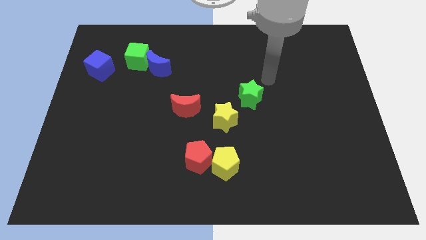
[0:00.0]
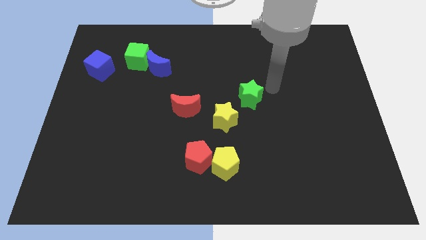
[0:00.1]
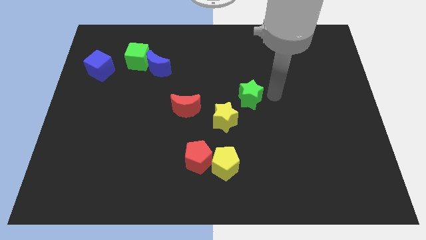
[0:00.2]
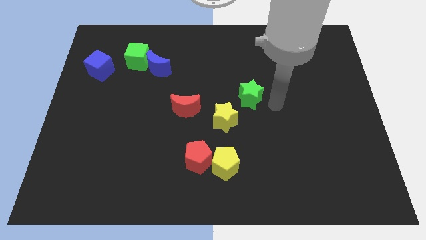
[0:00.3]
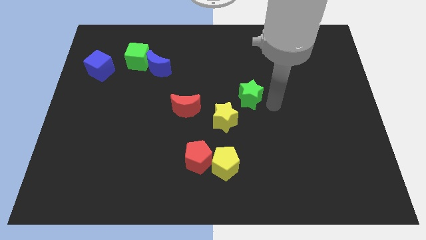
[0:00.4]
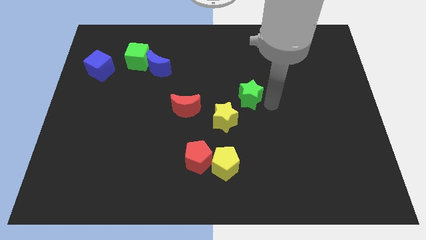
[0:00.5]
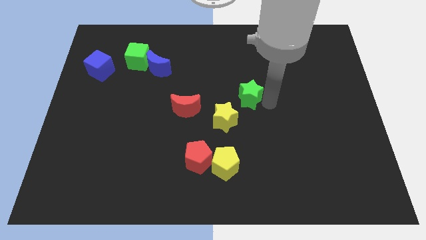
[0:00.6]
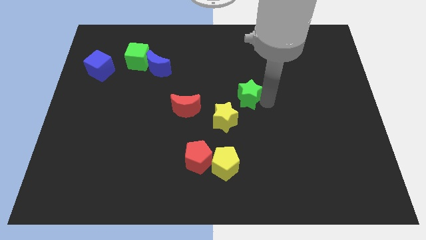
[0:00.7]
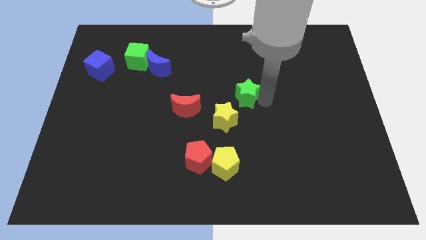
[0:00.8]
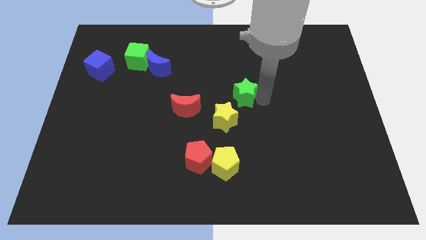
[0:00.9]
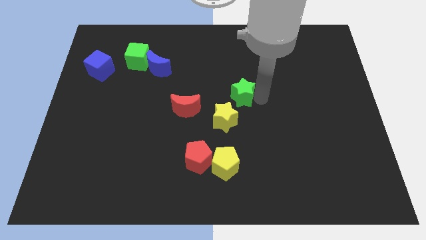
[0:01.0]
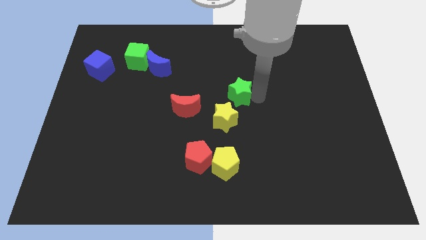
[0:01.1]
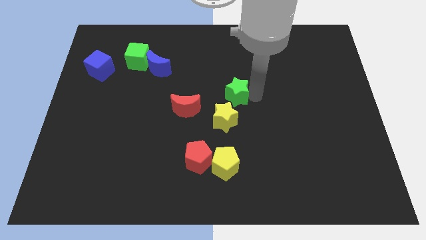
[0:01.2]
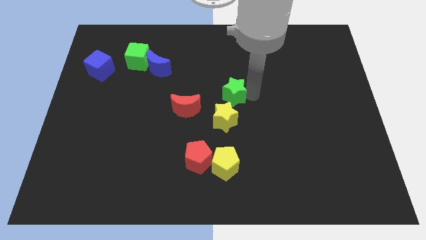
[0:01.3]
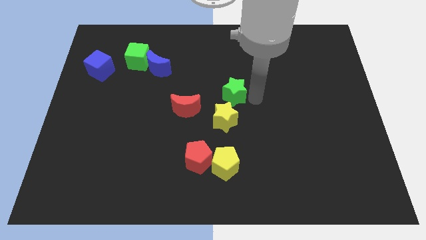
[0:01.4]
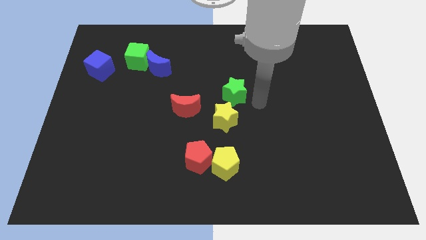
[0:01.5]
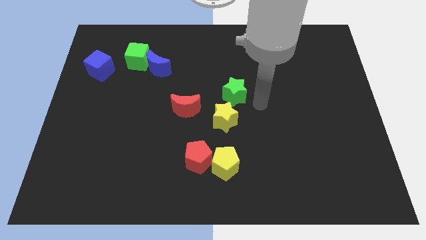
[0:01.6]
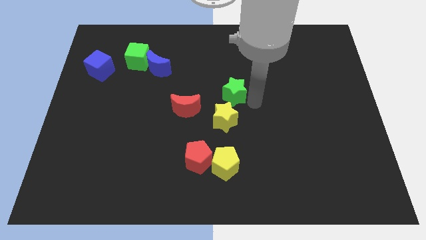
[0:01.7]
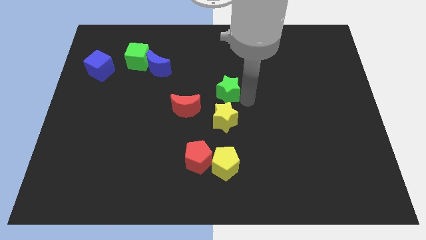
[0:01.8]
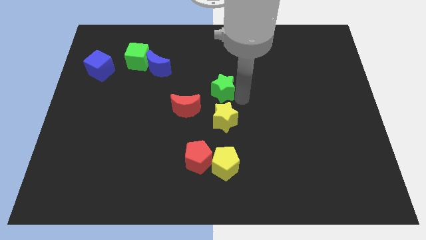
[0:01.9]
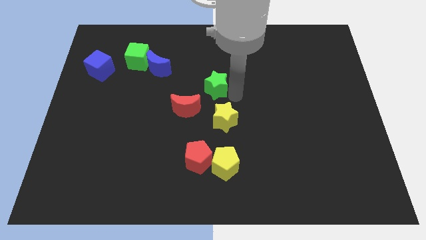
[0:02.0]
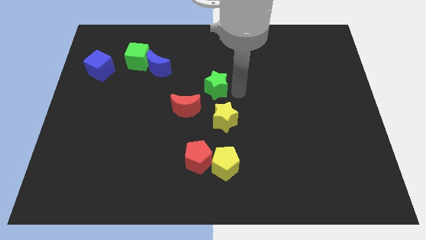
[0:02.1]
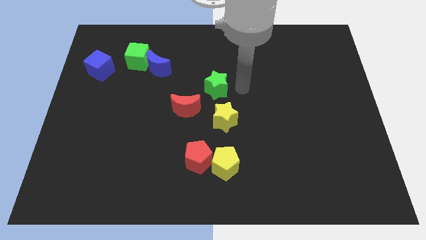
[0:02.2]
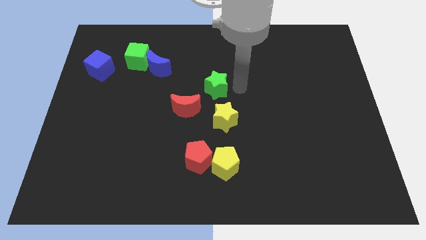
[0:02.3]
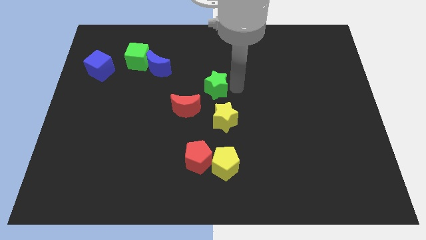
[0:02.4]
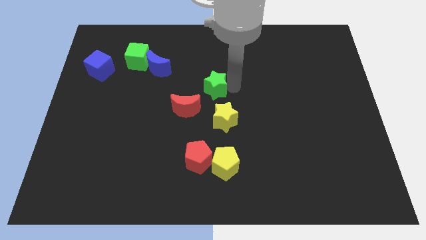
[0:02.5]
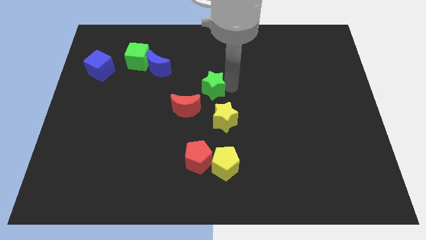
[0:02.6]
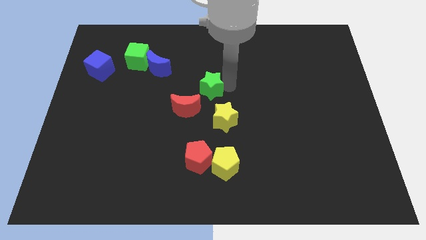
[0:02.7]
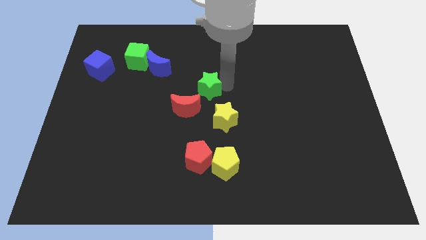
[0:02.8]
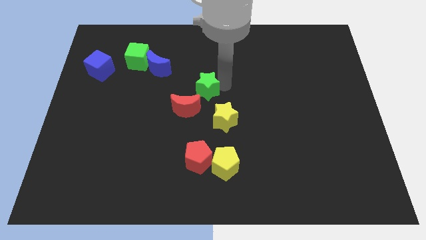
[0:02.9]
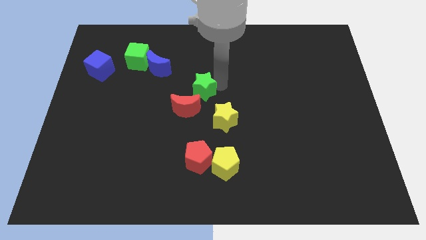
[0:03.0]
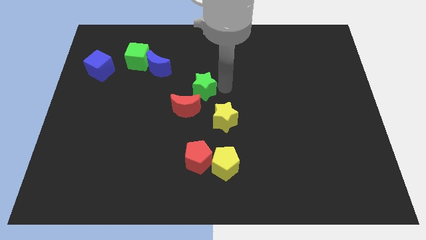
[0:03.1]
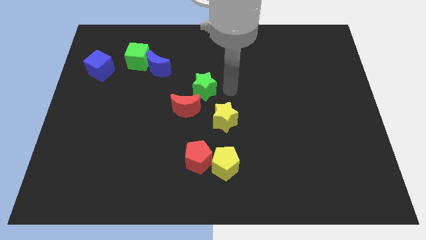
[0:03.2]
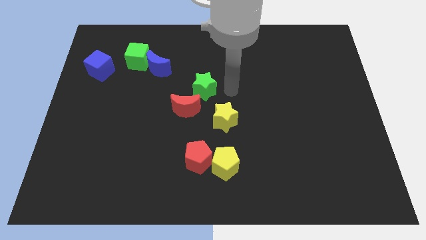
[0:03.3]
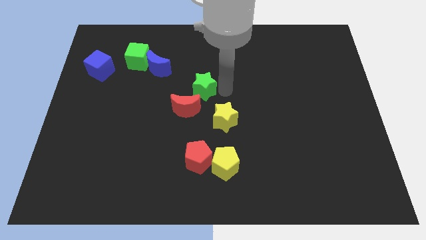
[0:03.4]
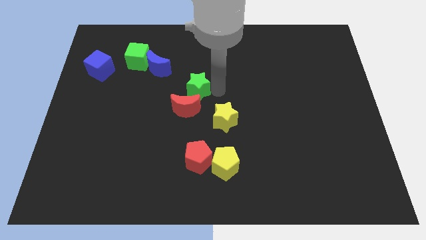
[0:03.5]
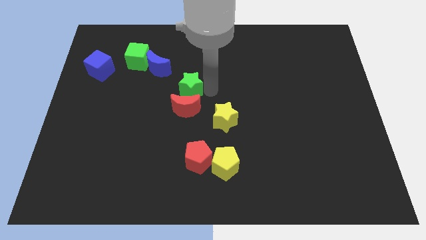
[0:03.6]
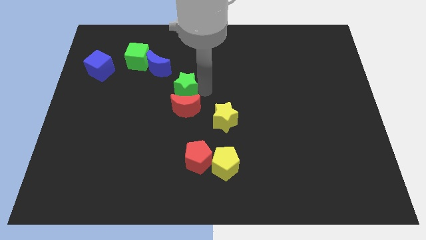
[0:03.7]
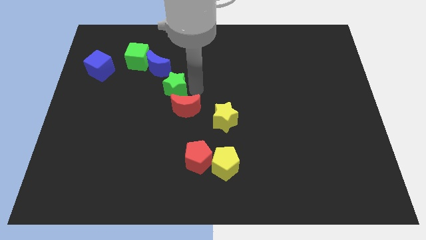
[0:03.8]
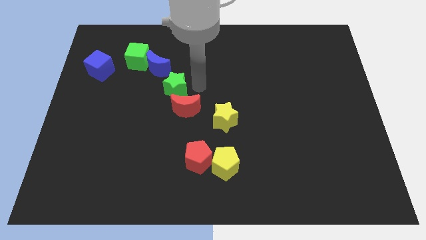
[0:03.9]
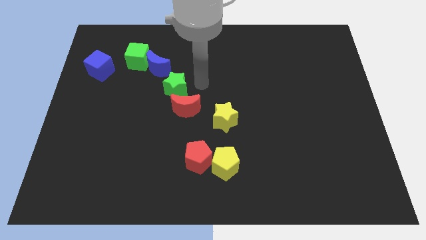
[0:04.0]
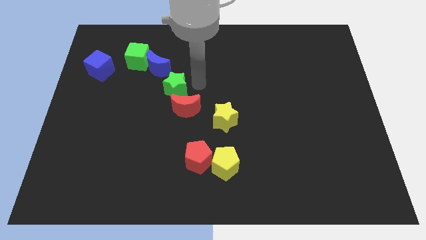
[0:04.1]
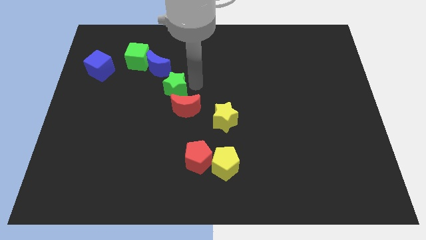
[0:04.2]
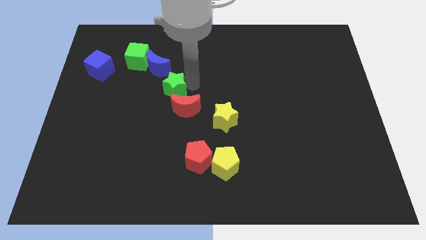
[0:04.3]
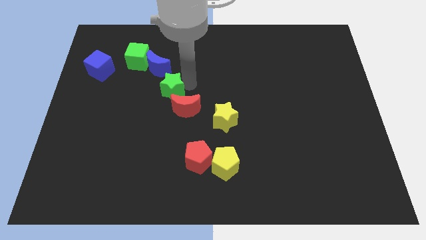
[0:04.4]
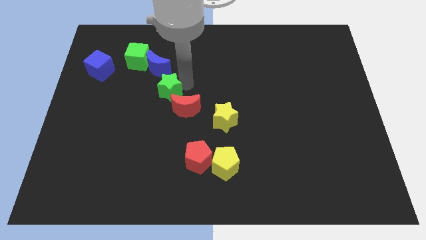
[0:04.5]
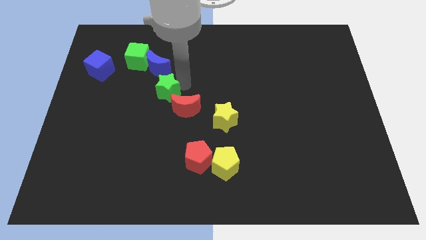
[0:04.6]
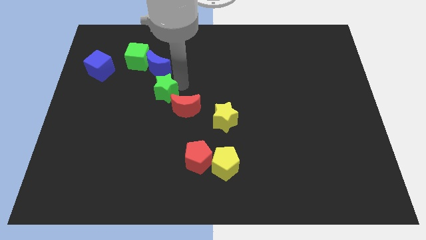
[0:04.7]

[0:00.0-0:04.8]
move the green star to the left

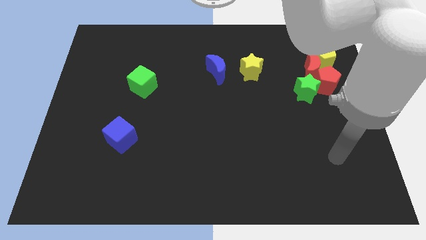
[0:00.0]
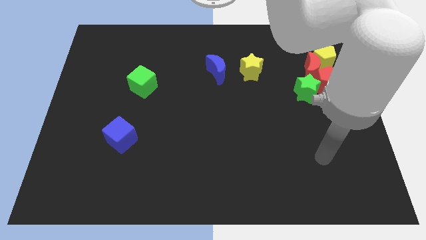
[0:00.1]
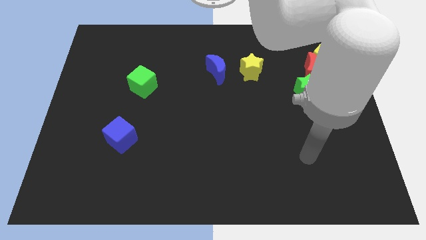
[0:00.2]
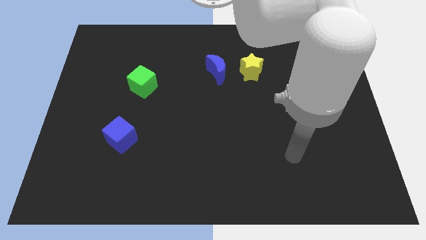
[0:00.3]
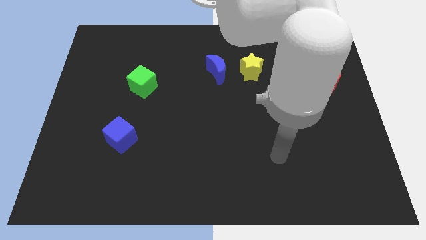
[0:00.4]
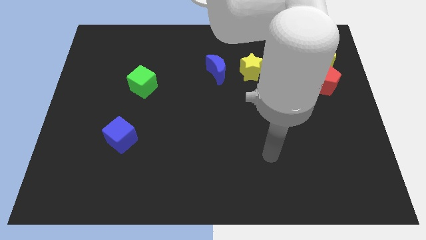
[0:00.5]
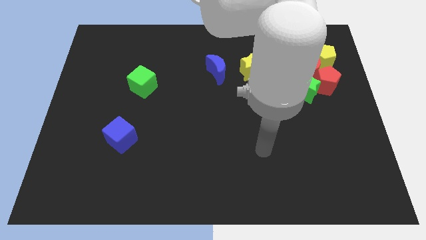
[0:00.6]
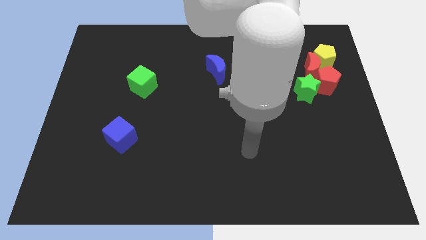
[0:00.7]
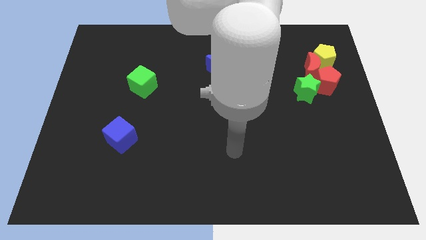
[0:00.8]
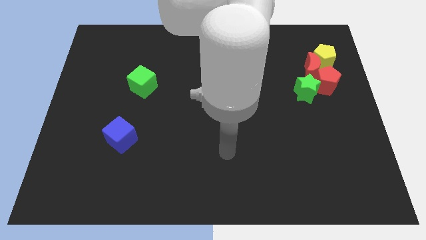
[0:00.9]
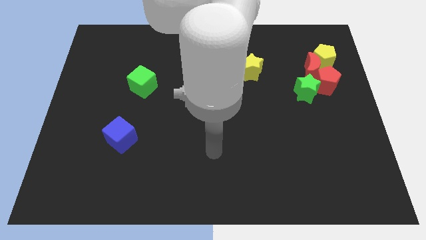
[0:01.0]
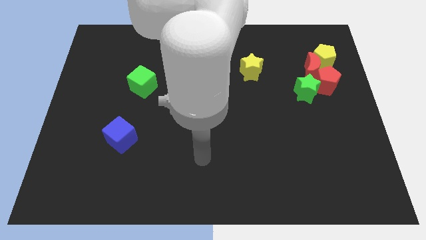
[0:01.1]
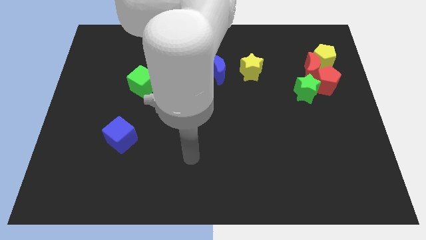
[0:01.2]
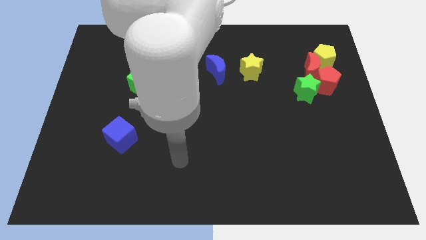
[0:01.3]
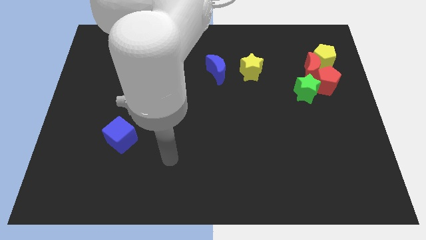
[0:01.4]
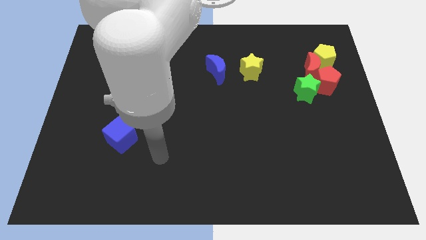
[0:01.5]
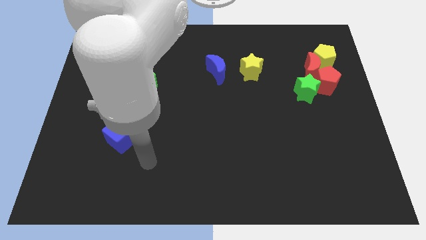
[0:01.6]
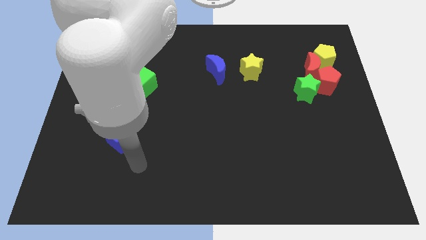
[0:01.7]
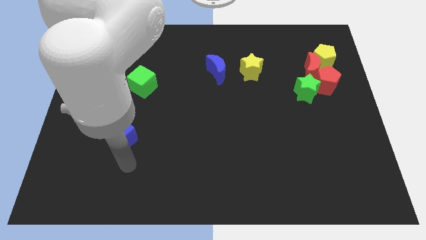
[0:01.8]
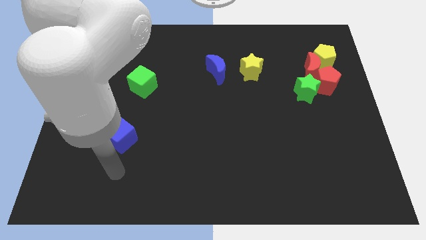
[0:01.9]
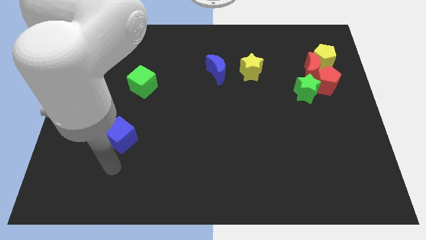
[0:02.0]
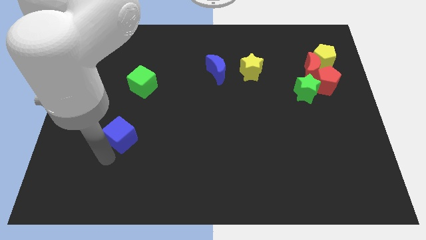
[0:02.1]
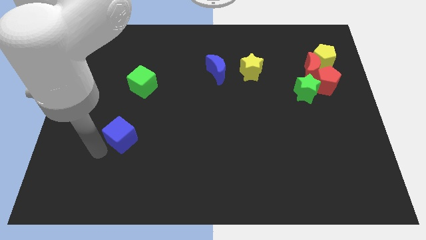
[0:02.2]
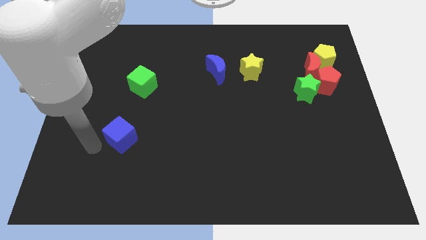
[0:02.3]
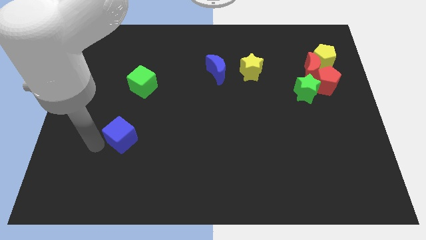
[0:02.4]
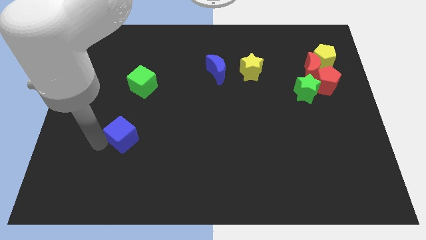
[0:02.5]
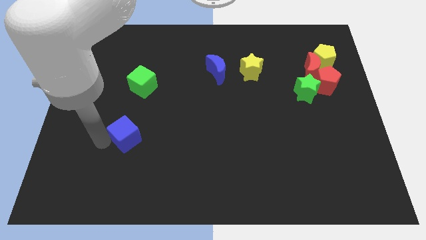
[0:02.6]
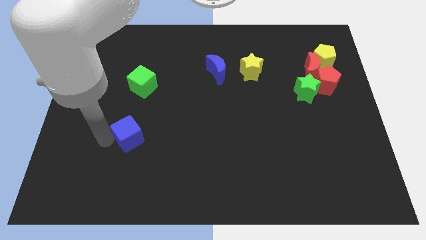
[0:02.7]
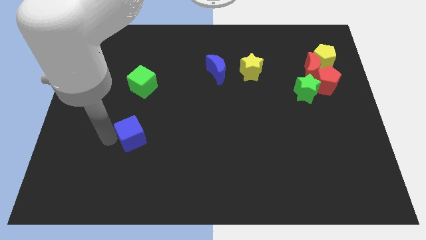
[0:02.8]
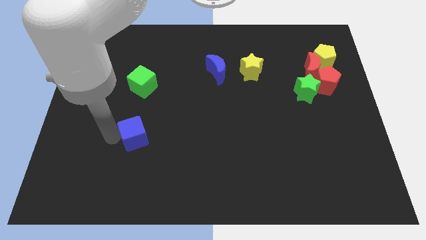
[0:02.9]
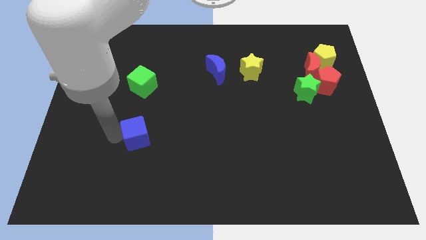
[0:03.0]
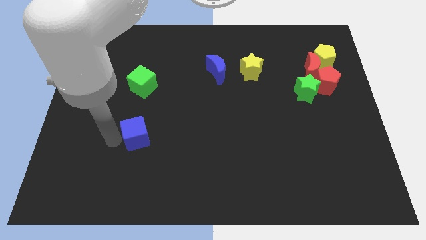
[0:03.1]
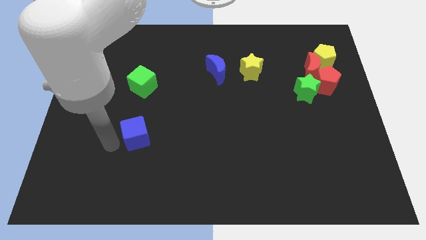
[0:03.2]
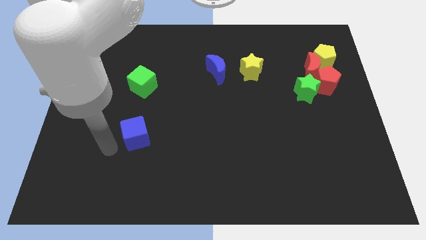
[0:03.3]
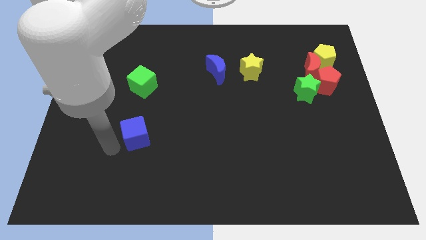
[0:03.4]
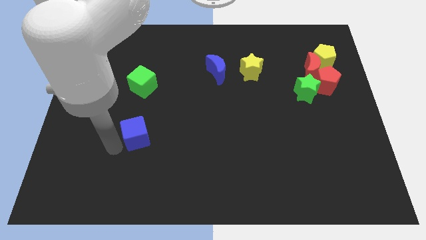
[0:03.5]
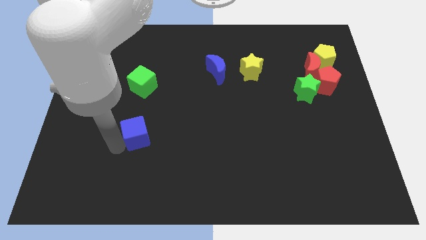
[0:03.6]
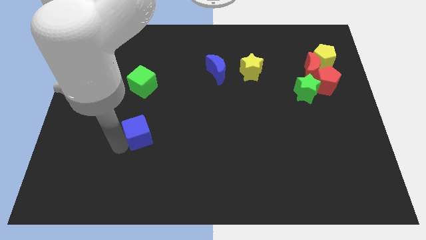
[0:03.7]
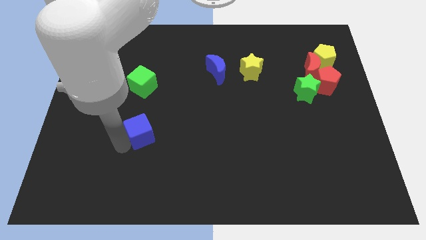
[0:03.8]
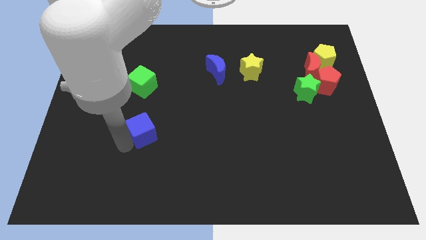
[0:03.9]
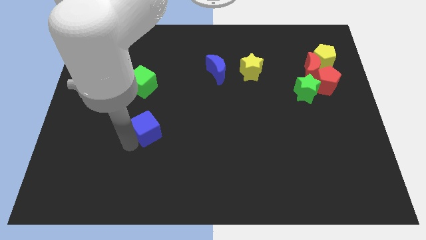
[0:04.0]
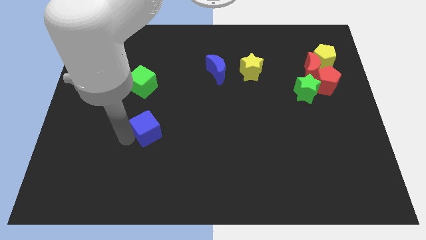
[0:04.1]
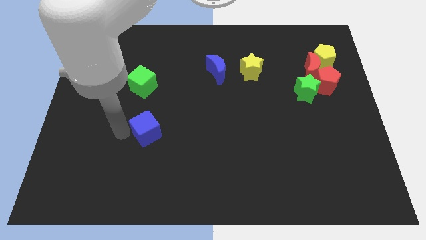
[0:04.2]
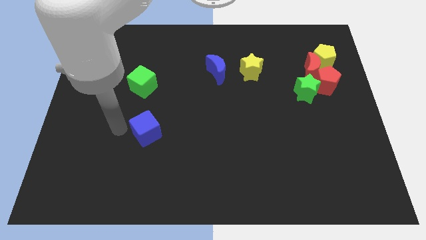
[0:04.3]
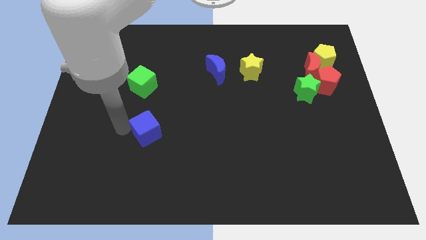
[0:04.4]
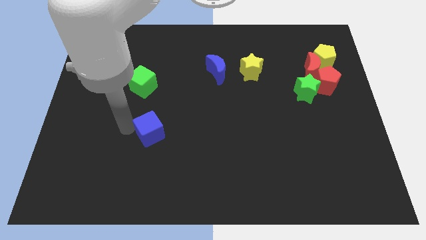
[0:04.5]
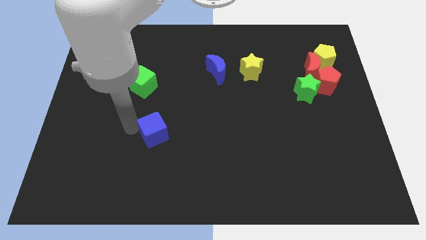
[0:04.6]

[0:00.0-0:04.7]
slightly push the blue cube to the right
